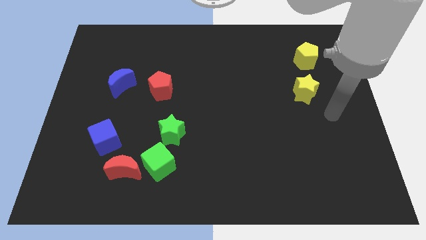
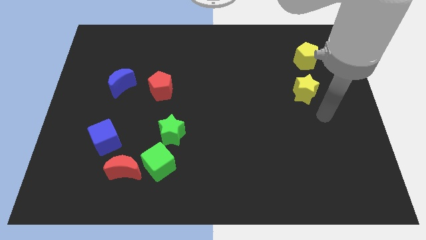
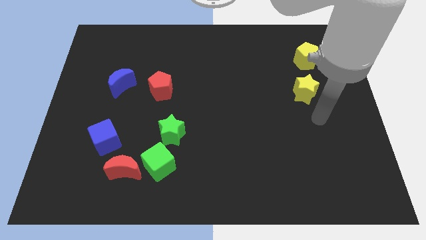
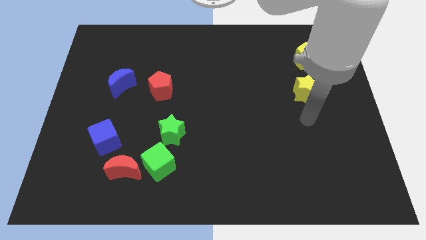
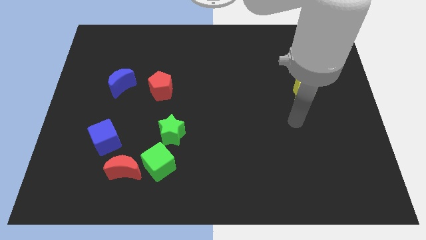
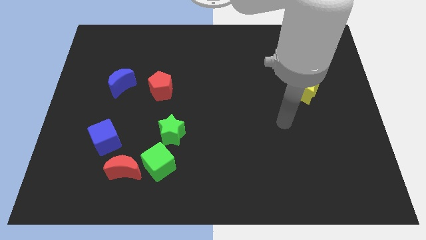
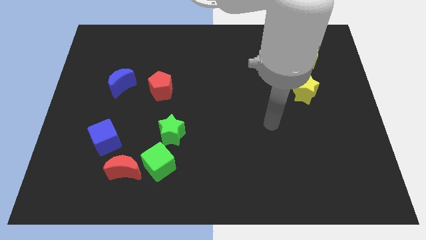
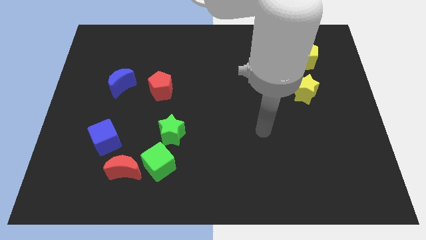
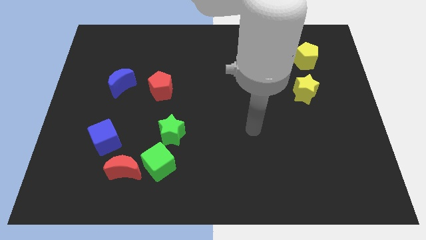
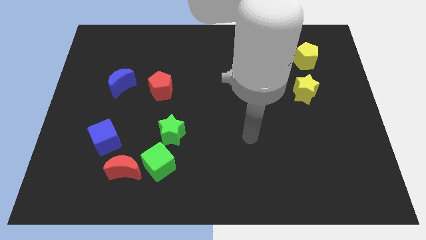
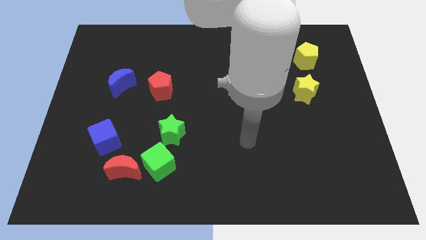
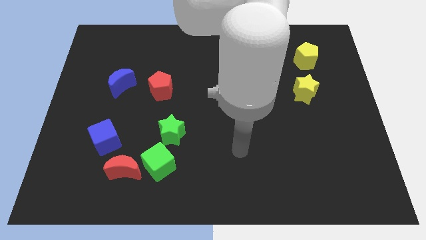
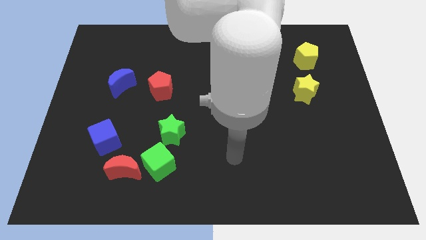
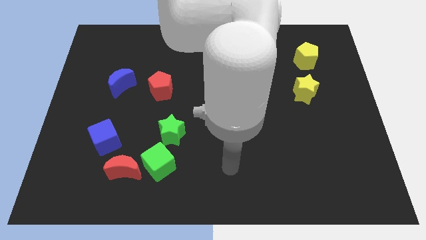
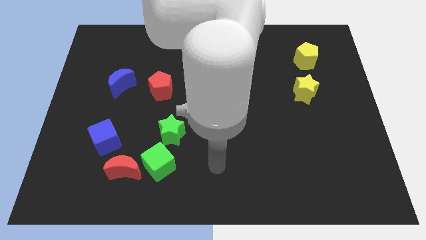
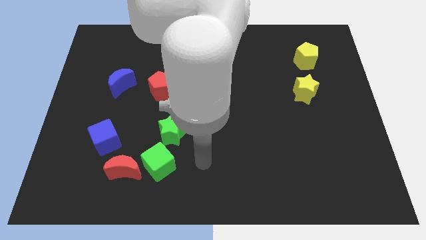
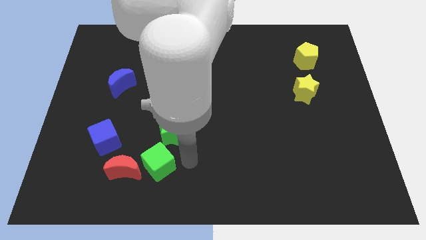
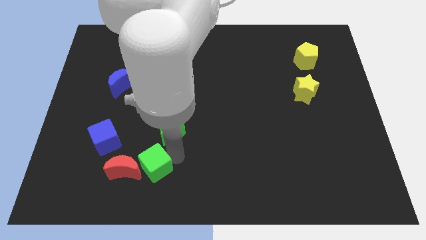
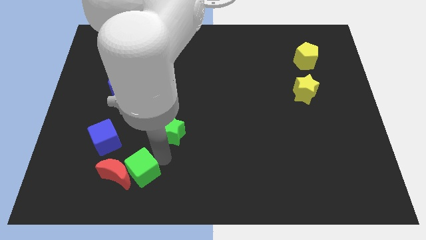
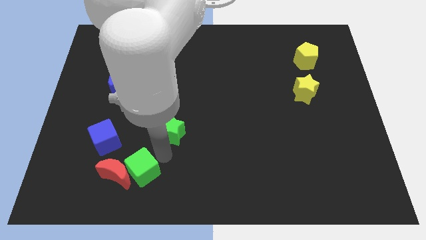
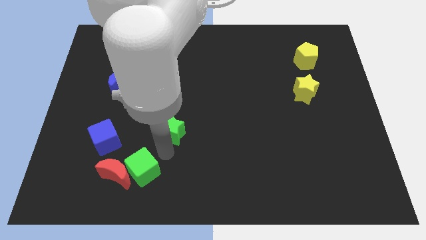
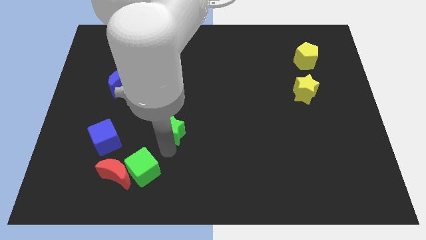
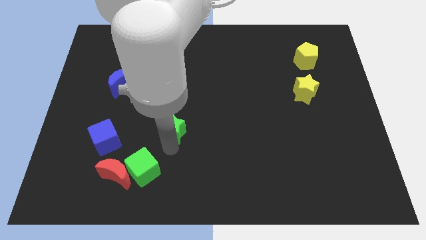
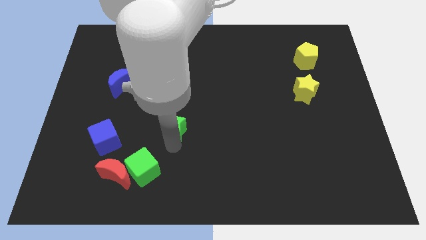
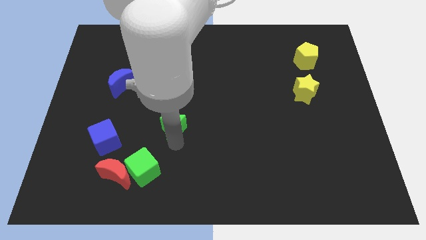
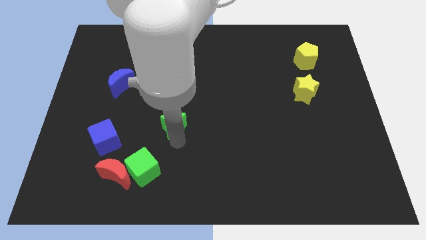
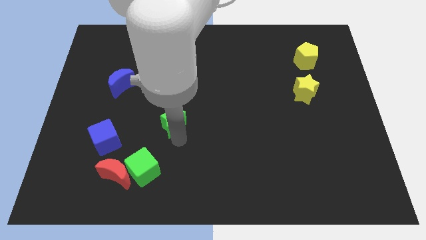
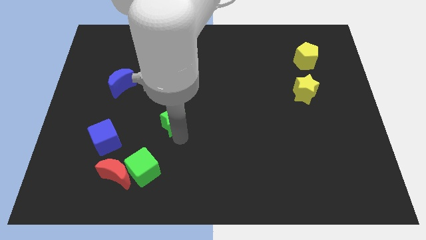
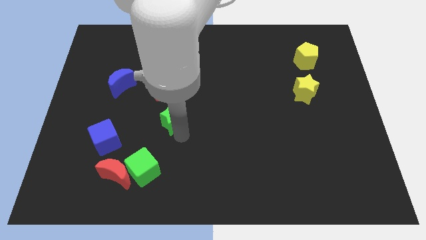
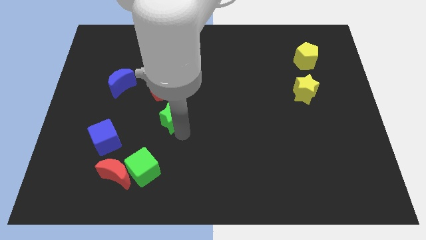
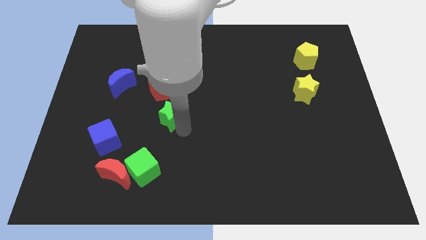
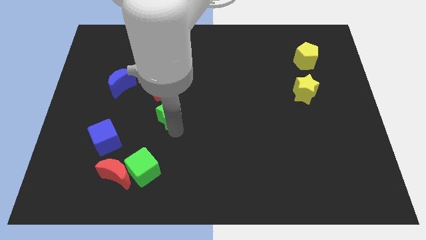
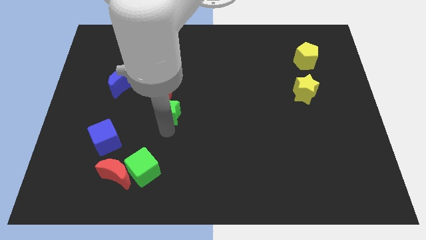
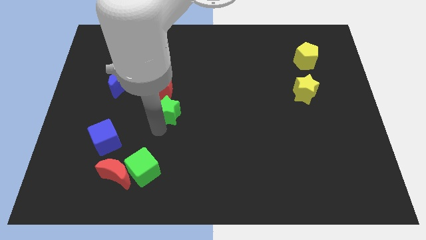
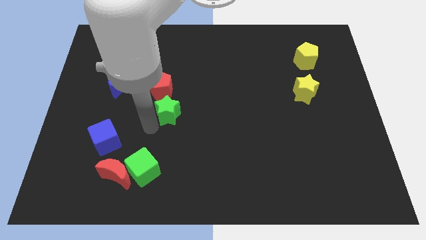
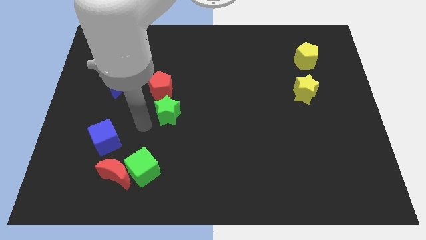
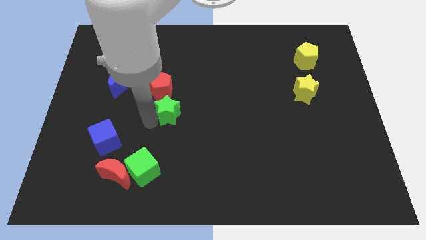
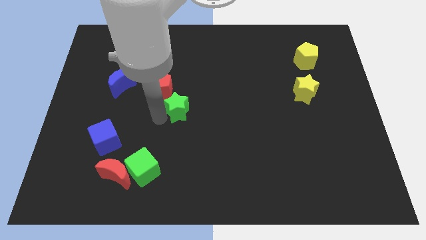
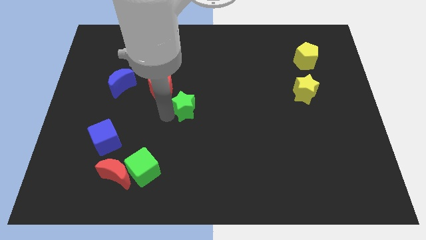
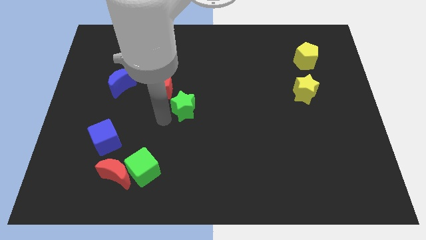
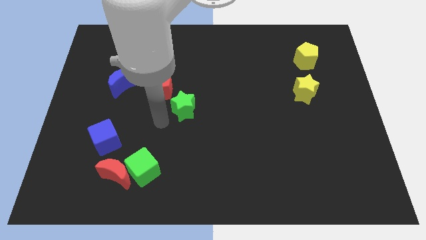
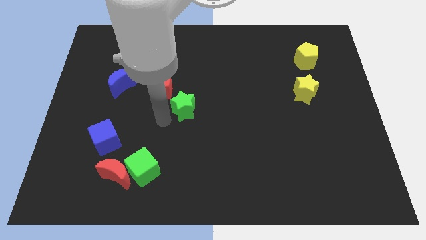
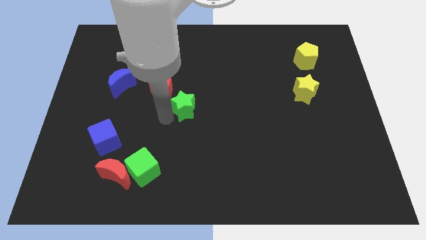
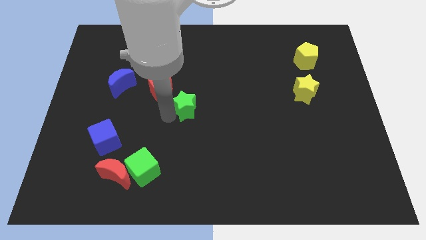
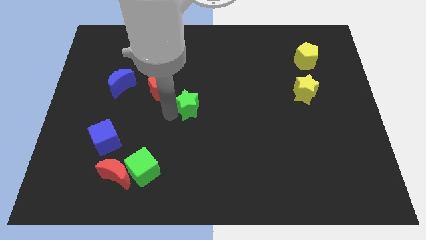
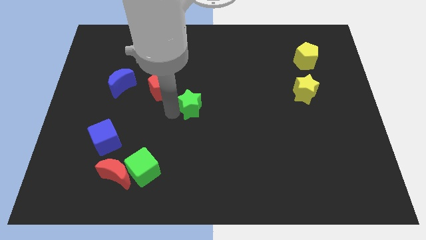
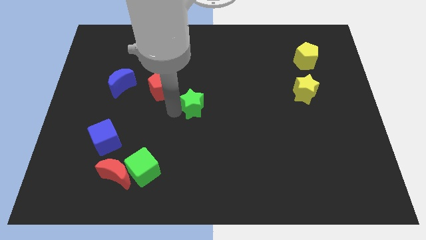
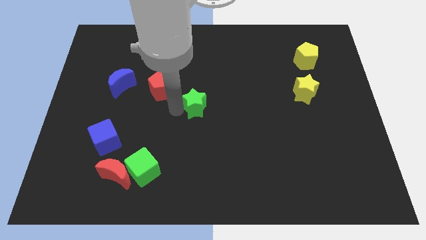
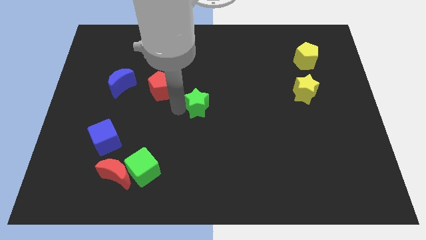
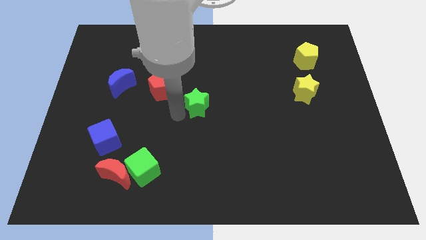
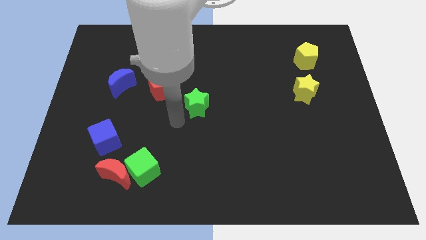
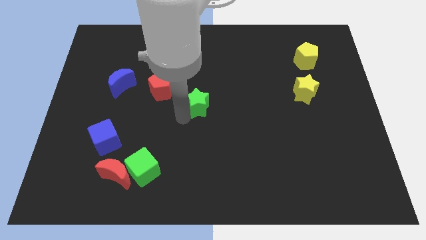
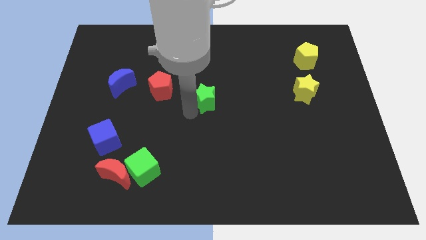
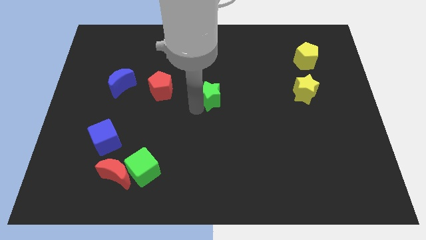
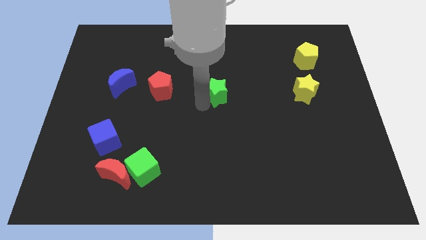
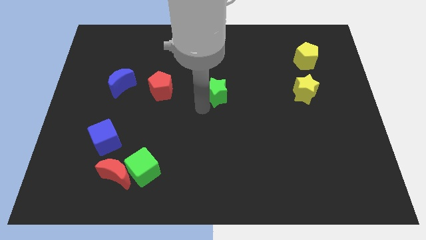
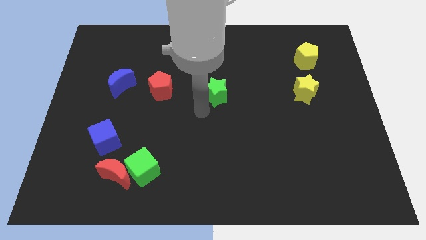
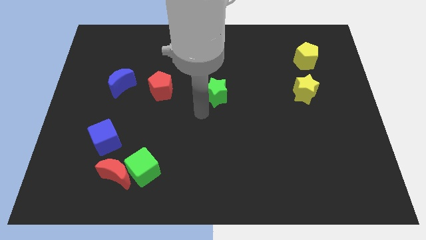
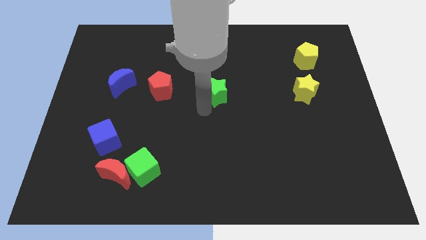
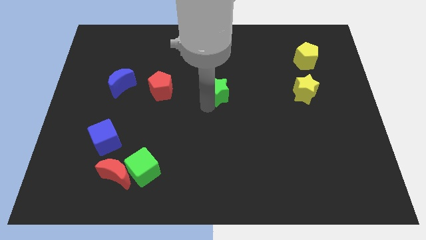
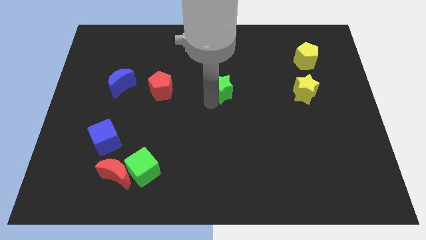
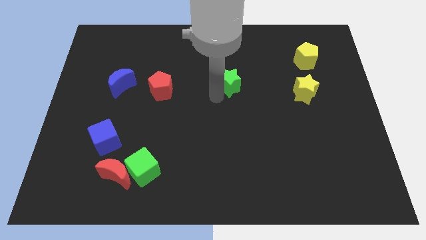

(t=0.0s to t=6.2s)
move the green star up and to the right

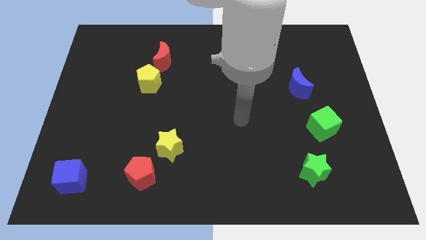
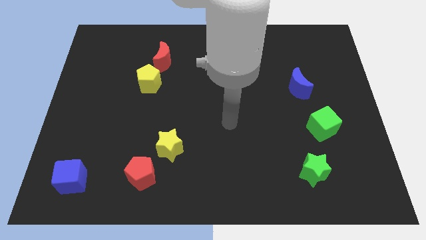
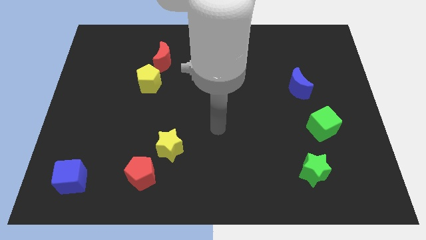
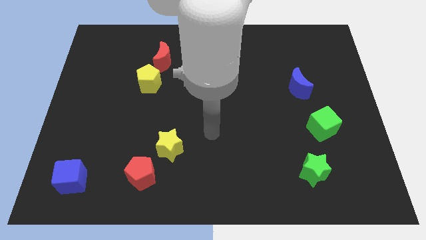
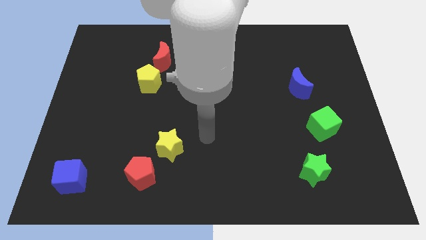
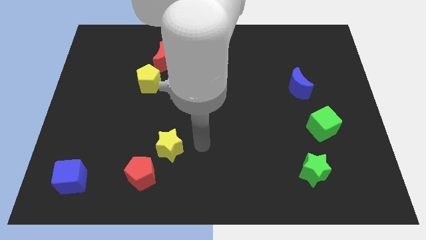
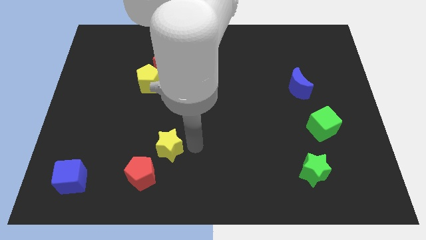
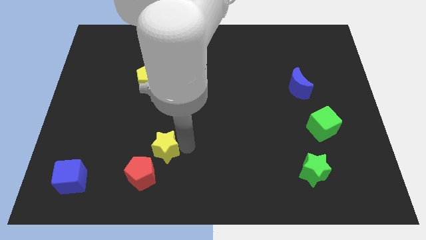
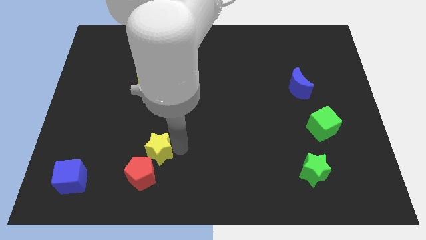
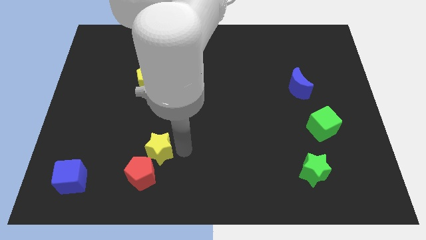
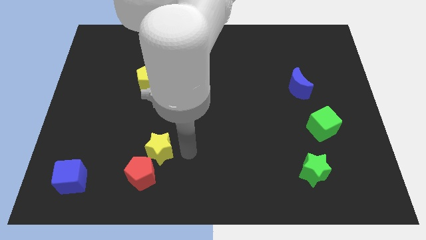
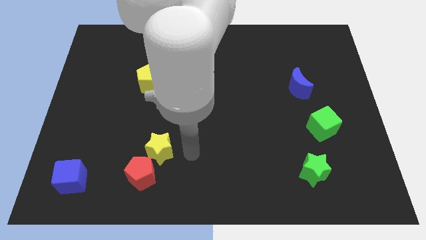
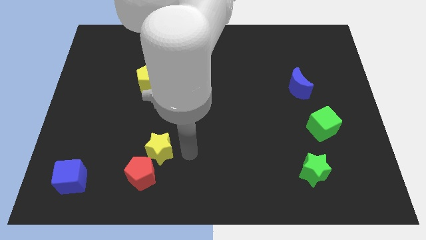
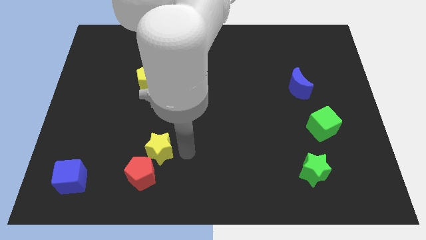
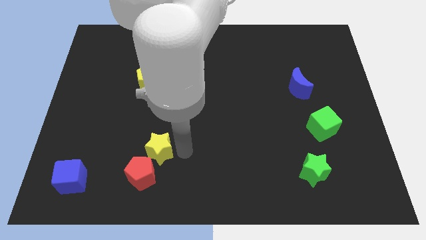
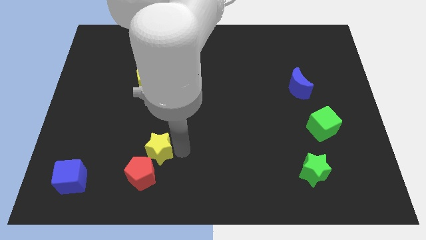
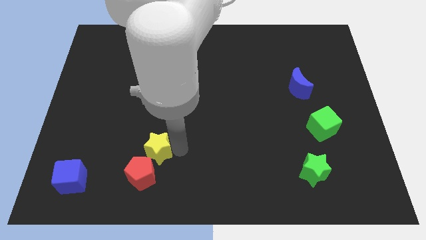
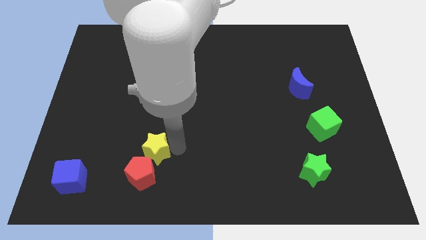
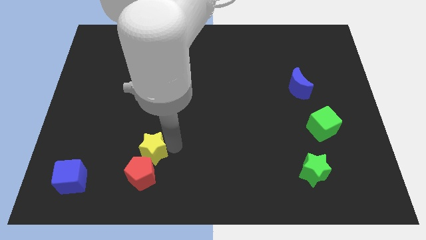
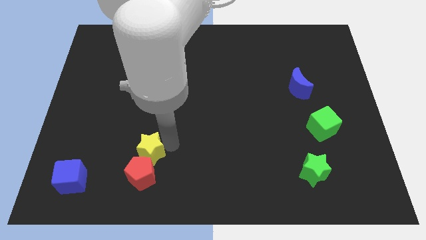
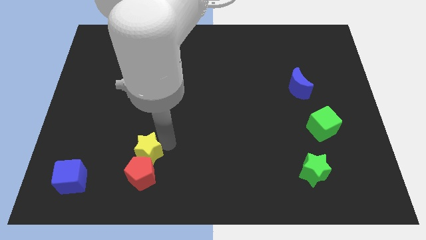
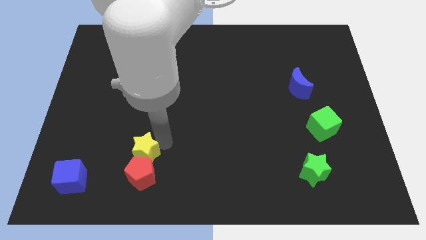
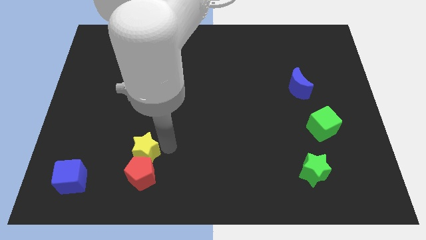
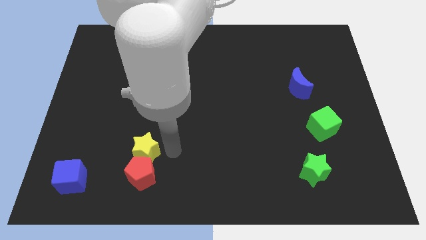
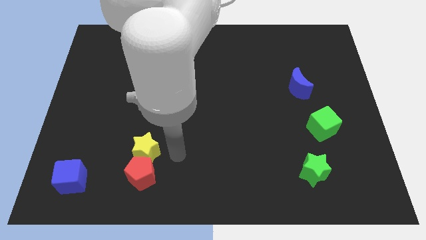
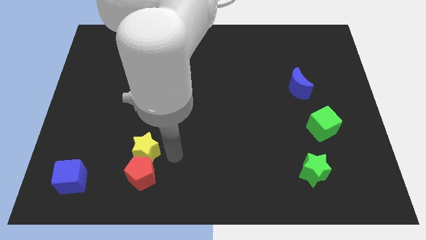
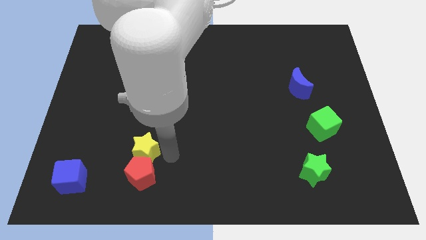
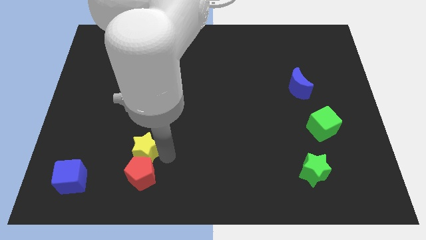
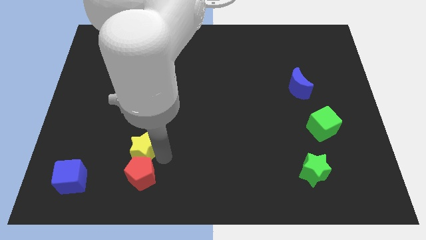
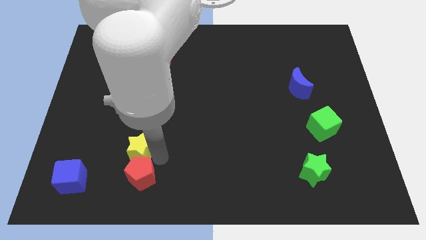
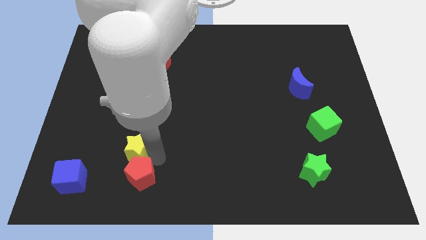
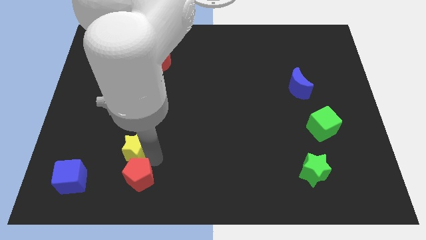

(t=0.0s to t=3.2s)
slightly slide the yellow star to the left
